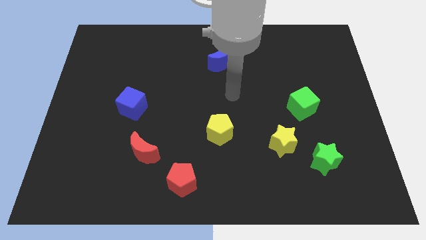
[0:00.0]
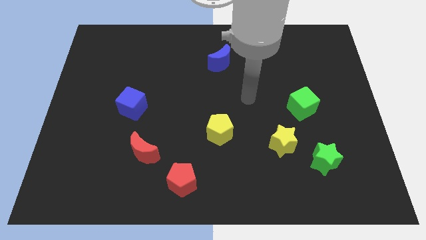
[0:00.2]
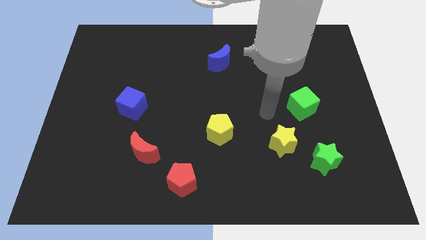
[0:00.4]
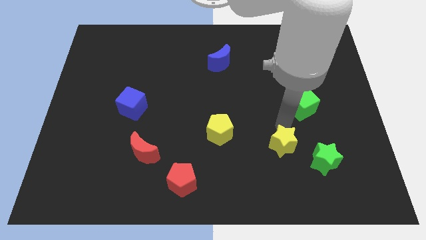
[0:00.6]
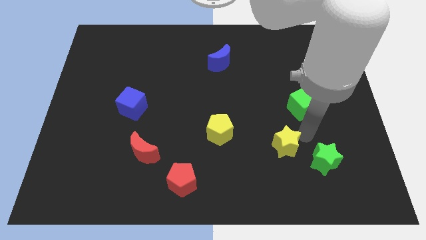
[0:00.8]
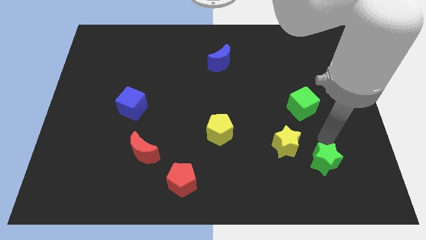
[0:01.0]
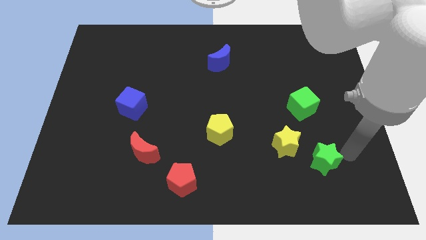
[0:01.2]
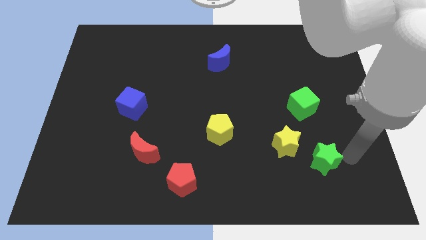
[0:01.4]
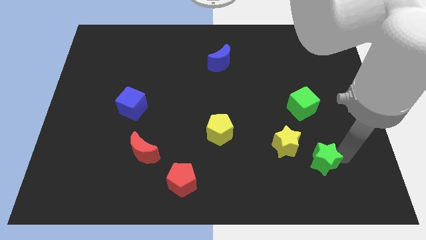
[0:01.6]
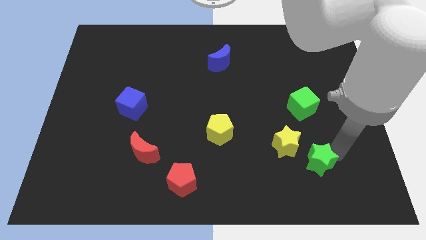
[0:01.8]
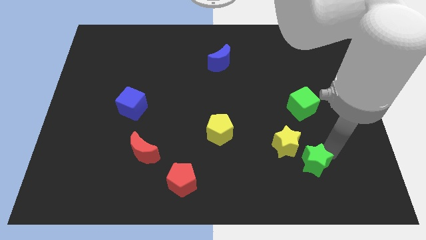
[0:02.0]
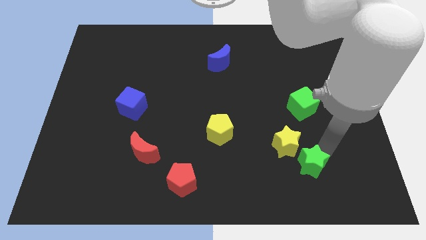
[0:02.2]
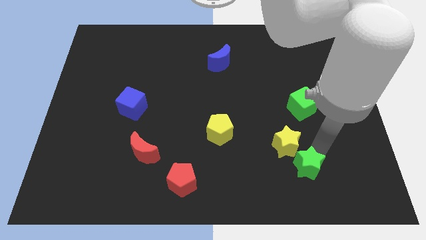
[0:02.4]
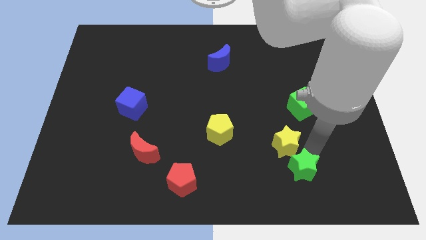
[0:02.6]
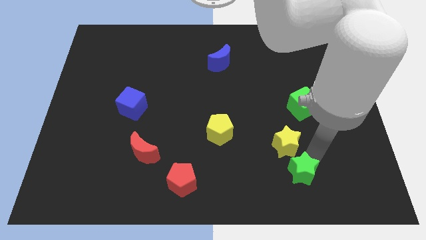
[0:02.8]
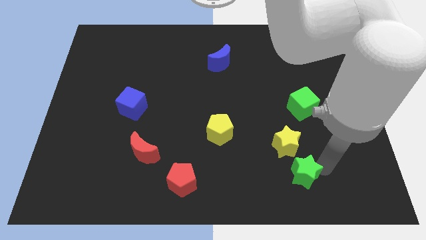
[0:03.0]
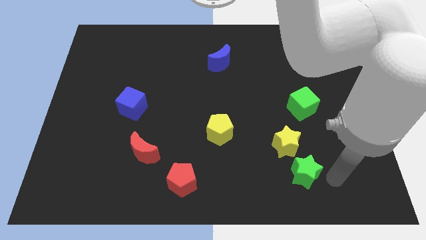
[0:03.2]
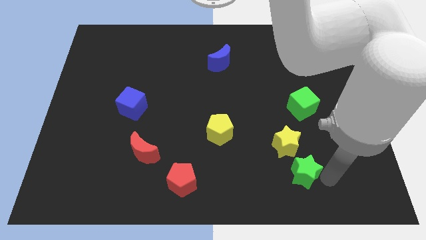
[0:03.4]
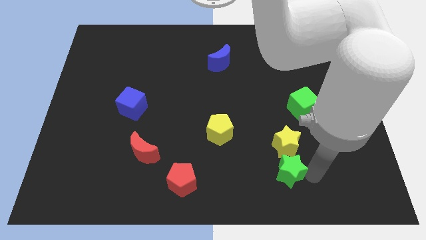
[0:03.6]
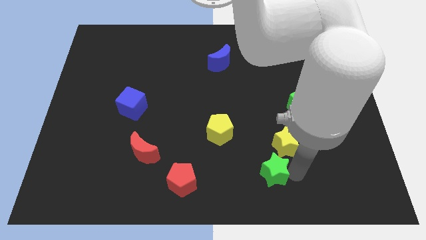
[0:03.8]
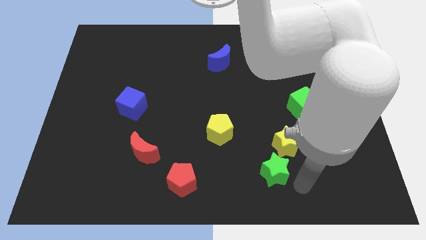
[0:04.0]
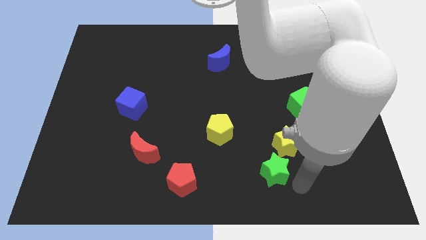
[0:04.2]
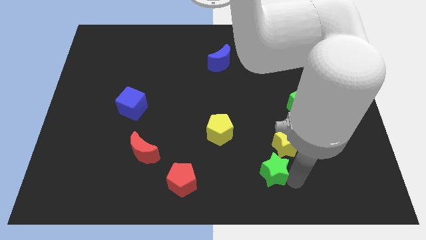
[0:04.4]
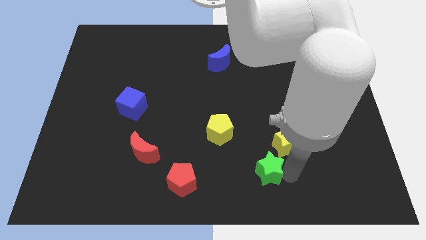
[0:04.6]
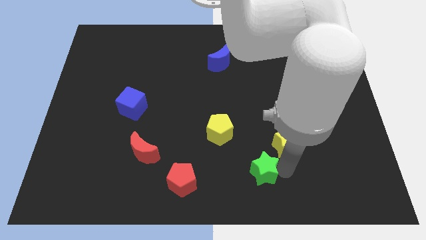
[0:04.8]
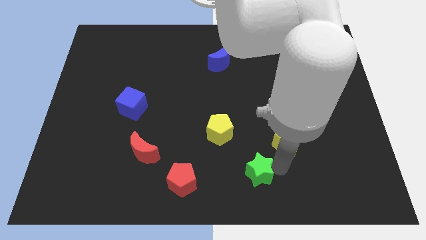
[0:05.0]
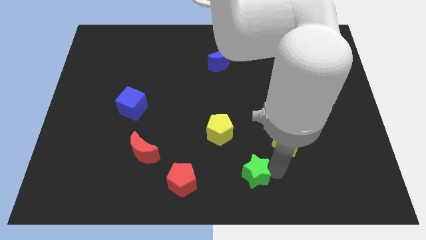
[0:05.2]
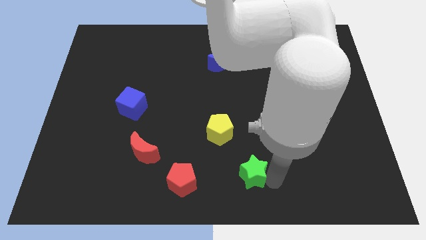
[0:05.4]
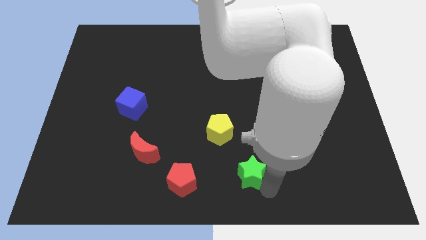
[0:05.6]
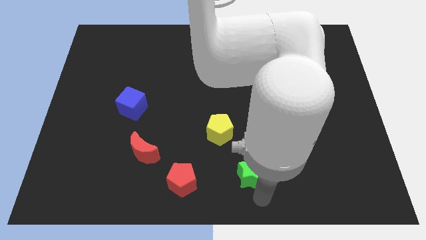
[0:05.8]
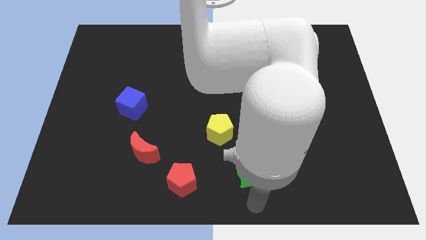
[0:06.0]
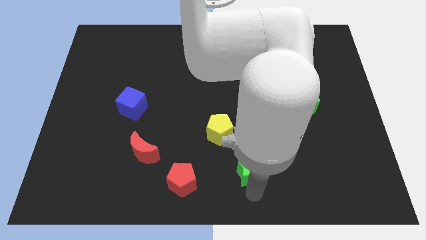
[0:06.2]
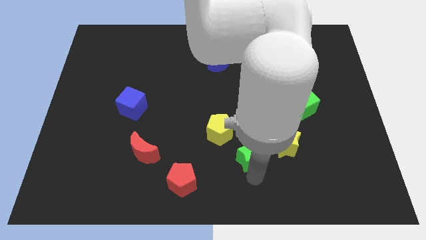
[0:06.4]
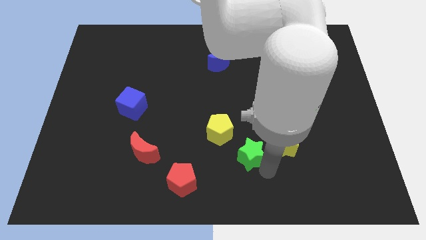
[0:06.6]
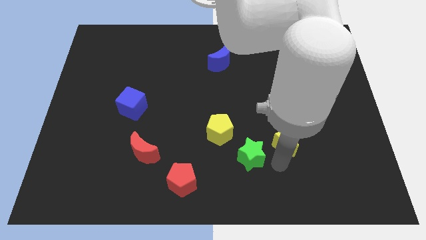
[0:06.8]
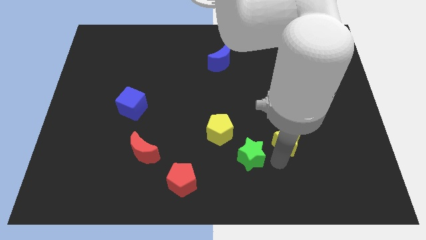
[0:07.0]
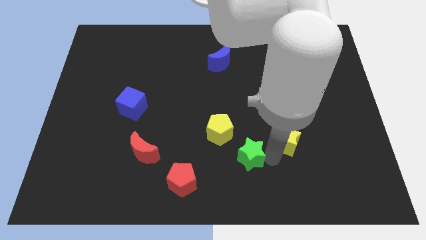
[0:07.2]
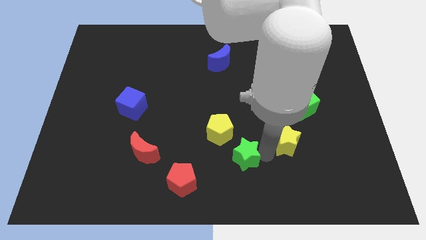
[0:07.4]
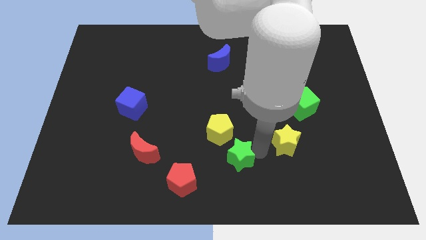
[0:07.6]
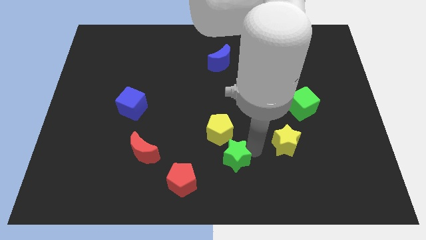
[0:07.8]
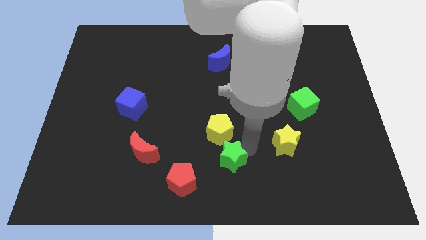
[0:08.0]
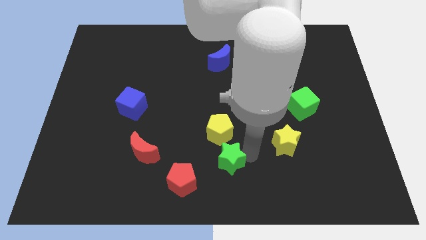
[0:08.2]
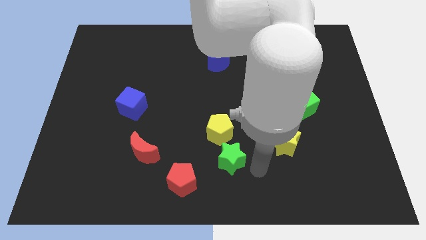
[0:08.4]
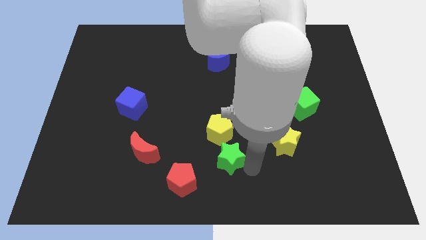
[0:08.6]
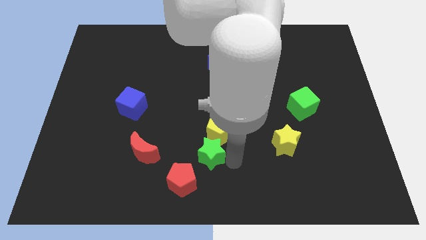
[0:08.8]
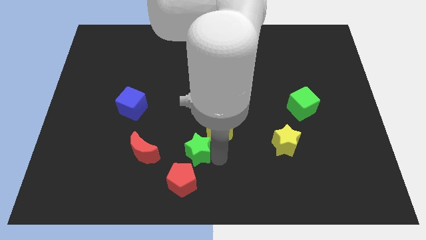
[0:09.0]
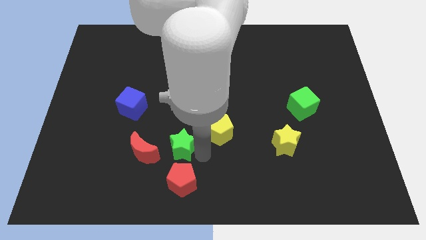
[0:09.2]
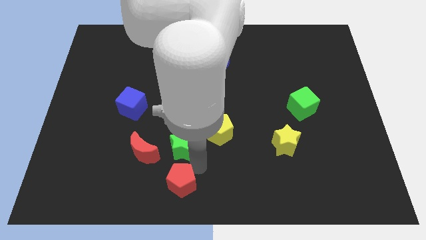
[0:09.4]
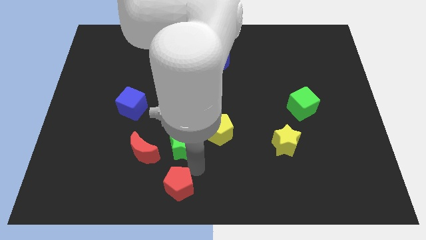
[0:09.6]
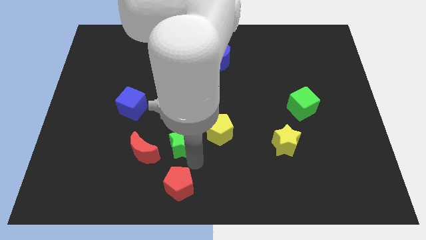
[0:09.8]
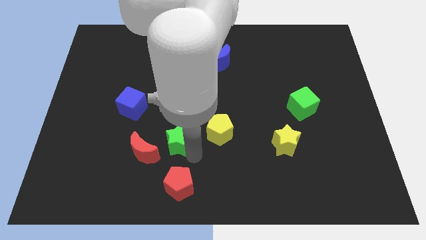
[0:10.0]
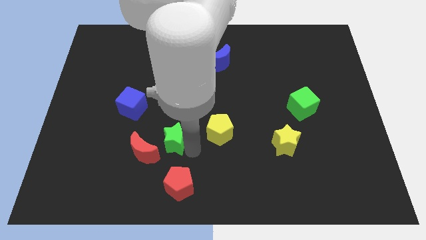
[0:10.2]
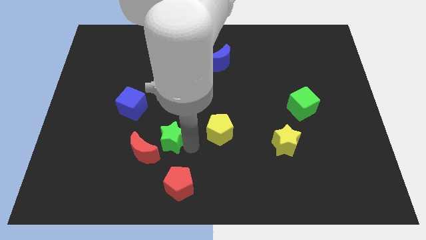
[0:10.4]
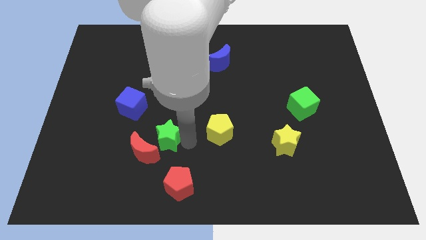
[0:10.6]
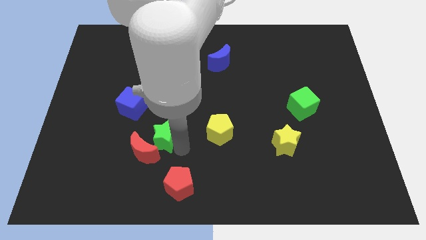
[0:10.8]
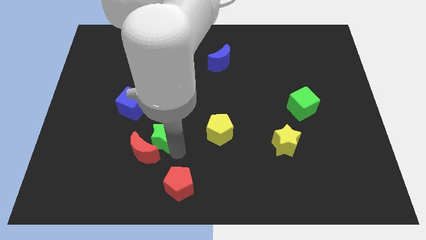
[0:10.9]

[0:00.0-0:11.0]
push the green star to the top of the red moon

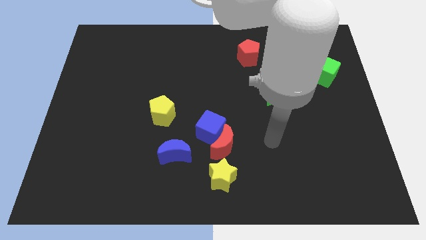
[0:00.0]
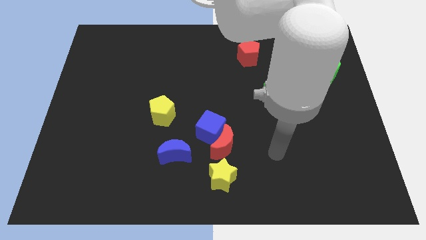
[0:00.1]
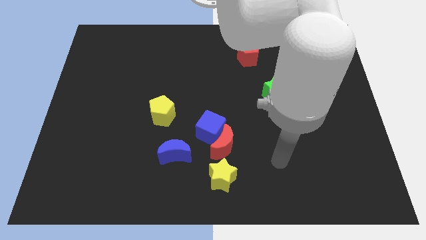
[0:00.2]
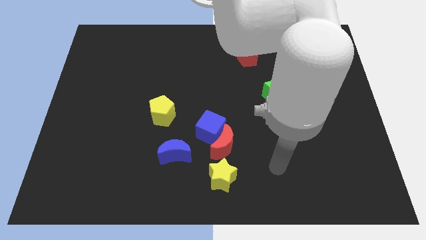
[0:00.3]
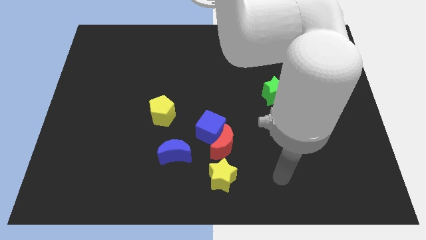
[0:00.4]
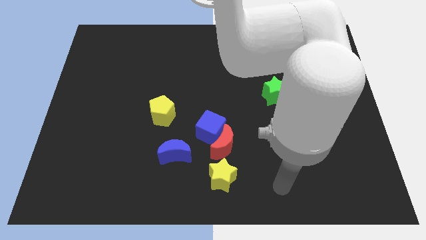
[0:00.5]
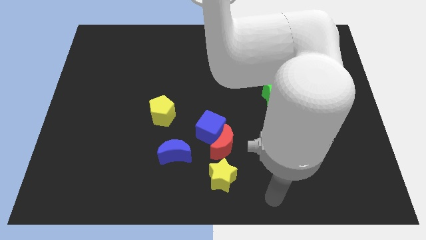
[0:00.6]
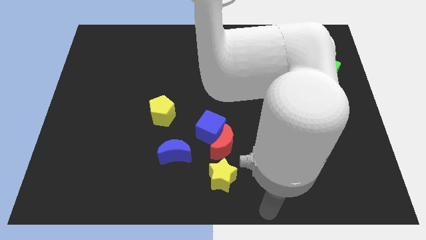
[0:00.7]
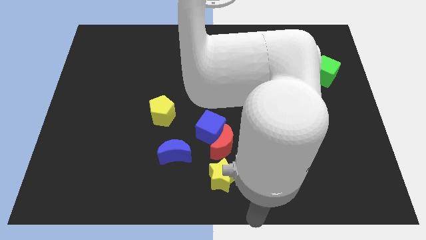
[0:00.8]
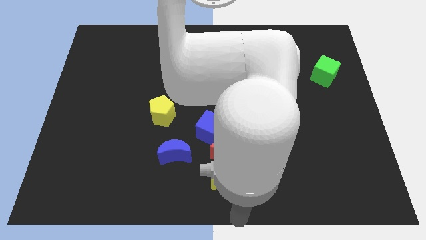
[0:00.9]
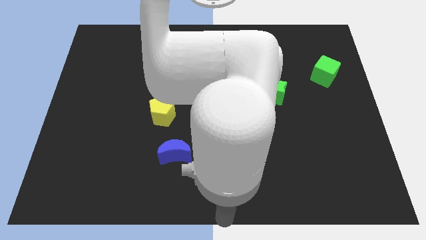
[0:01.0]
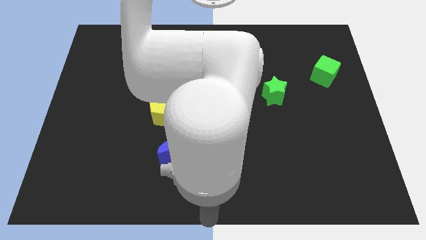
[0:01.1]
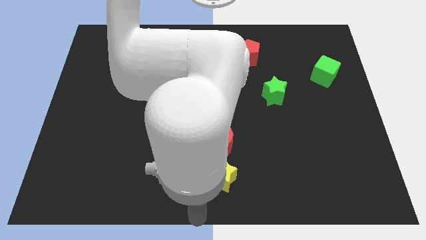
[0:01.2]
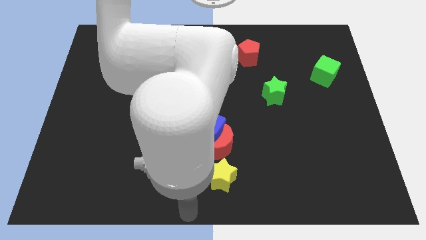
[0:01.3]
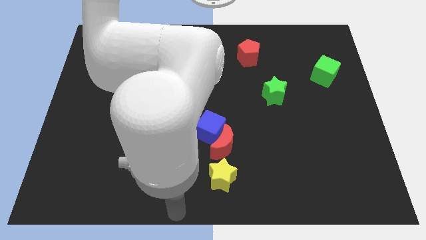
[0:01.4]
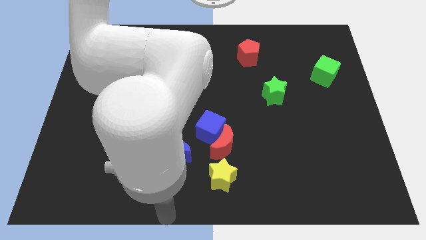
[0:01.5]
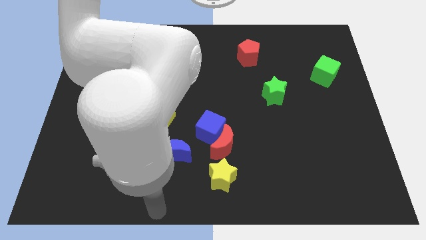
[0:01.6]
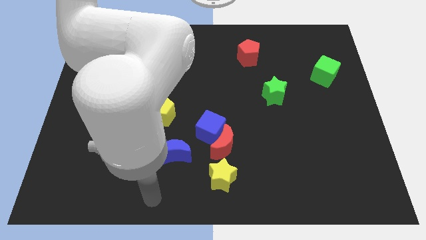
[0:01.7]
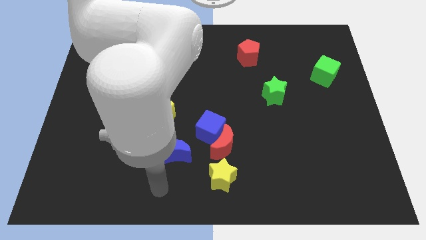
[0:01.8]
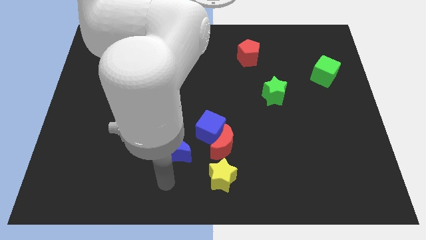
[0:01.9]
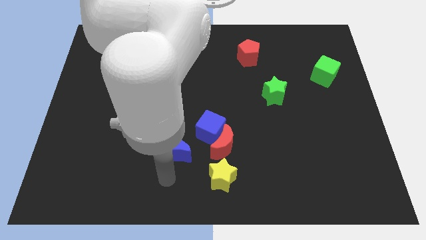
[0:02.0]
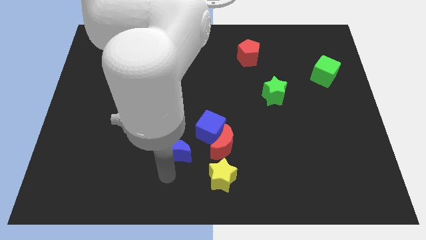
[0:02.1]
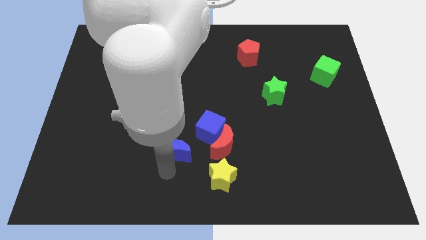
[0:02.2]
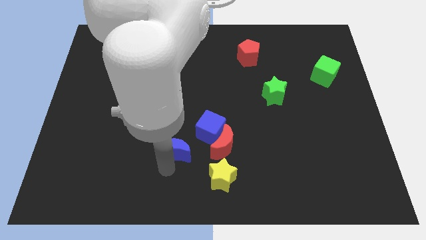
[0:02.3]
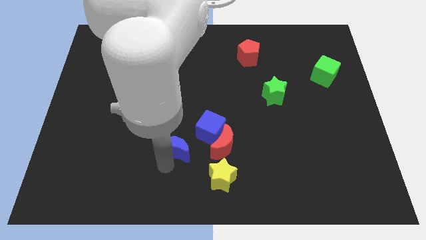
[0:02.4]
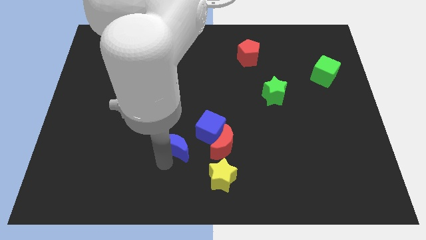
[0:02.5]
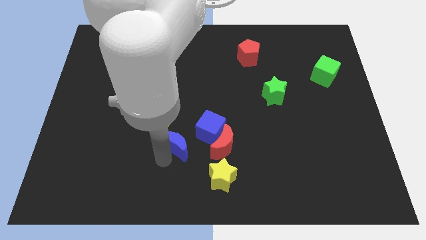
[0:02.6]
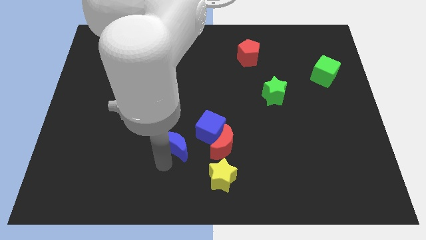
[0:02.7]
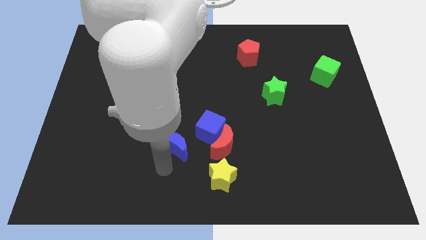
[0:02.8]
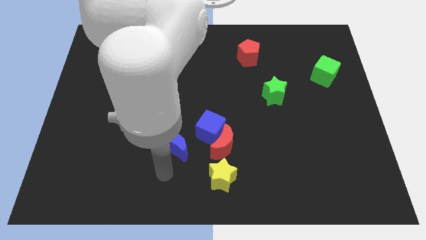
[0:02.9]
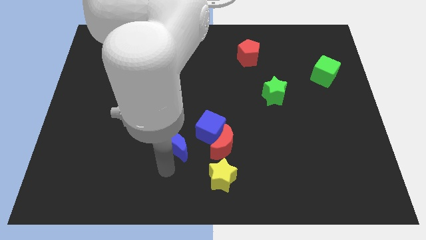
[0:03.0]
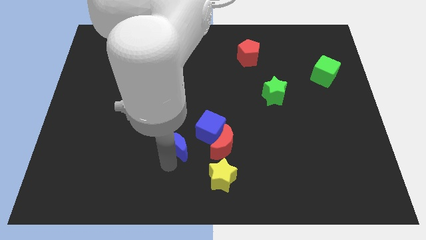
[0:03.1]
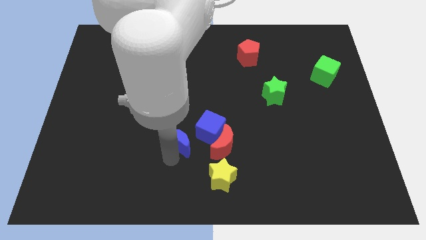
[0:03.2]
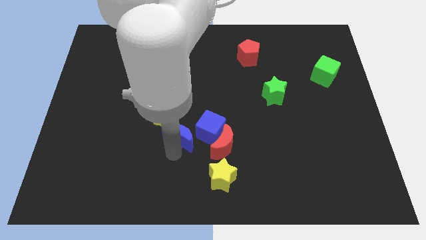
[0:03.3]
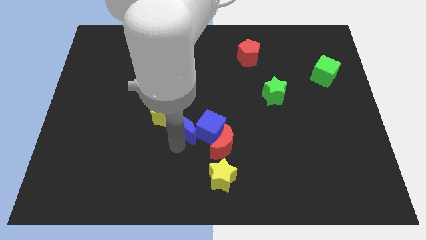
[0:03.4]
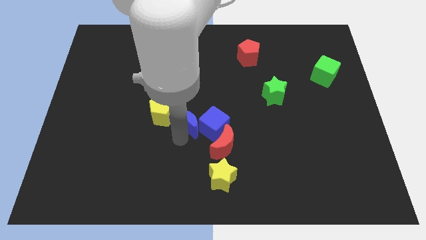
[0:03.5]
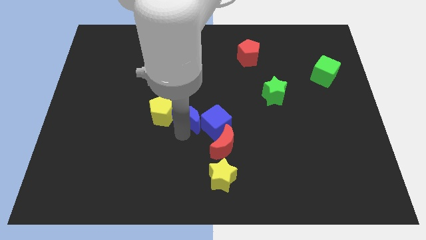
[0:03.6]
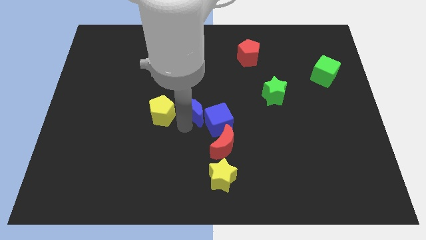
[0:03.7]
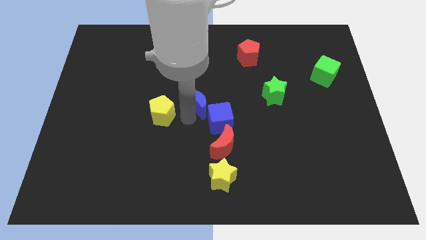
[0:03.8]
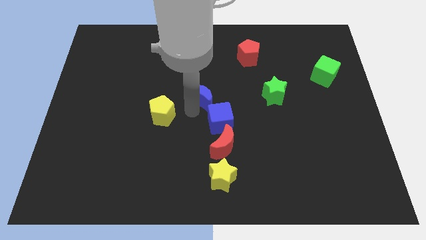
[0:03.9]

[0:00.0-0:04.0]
move the blue moon to the top of the blue cube
